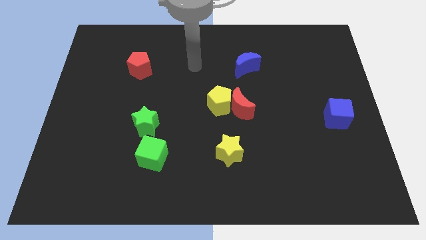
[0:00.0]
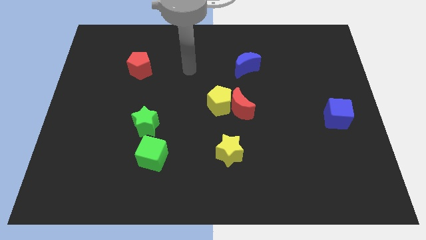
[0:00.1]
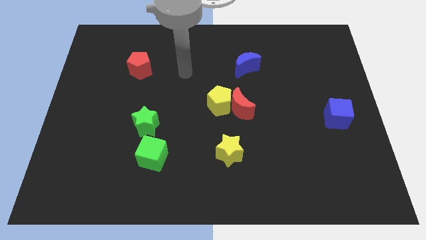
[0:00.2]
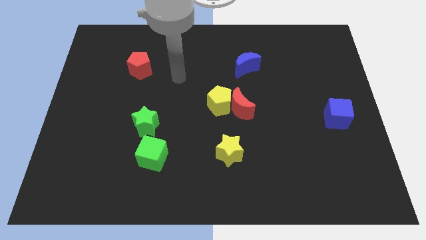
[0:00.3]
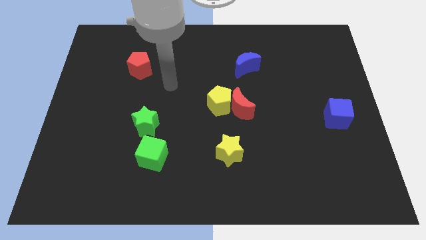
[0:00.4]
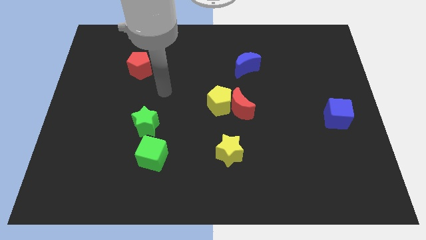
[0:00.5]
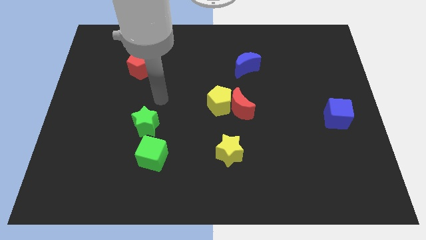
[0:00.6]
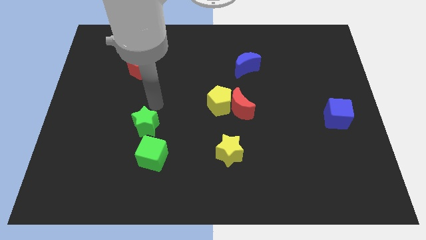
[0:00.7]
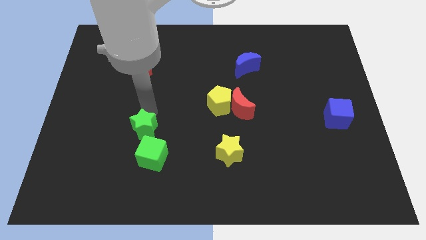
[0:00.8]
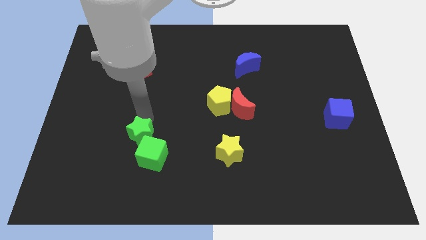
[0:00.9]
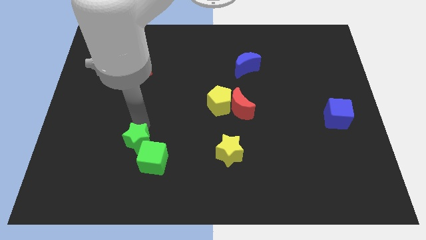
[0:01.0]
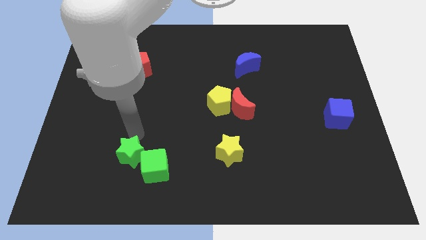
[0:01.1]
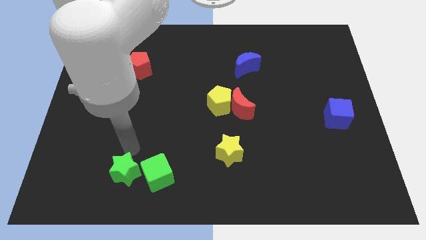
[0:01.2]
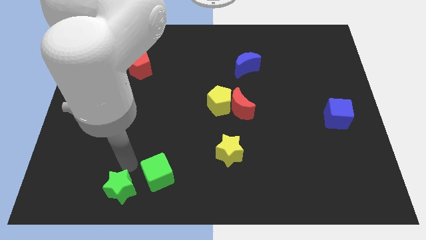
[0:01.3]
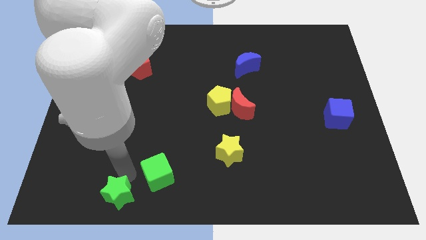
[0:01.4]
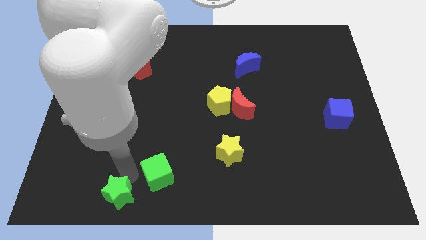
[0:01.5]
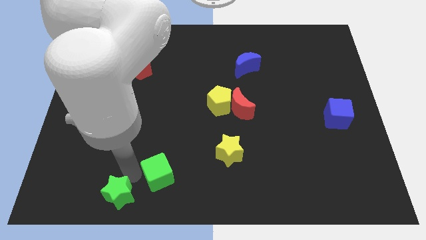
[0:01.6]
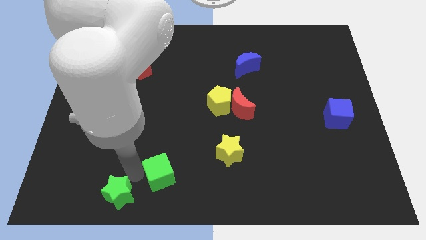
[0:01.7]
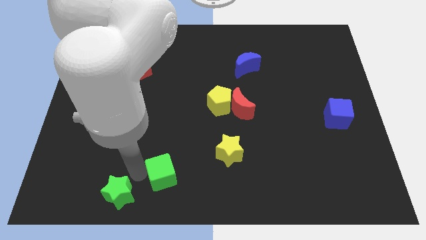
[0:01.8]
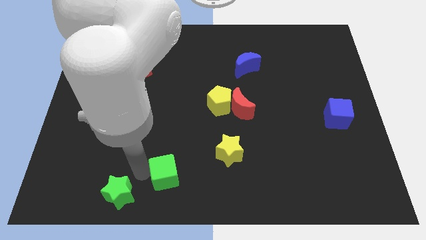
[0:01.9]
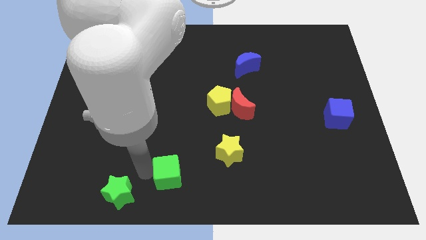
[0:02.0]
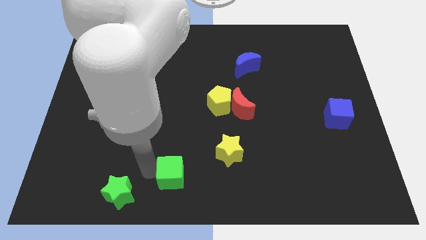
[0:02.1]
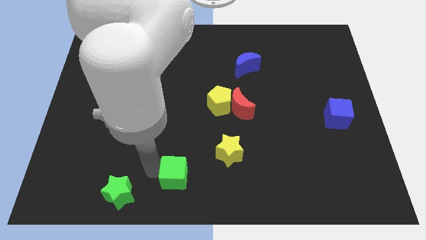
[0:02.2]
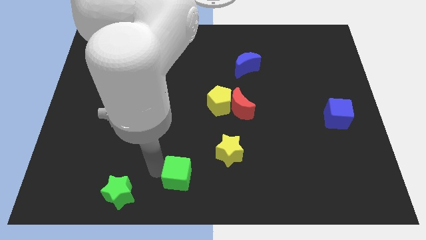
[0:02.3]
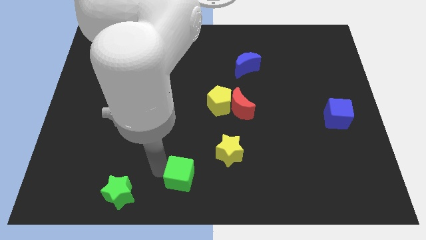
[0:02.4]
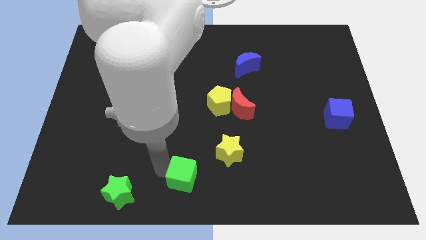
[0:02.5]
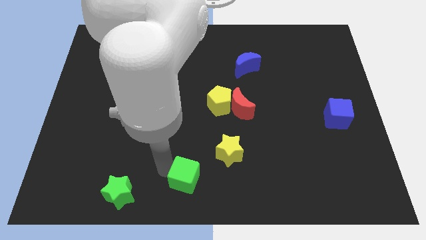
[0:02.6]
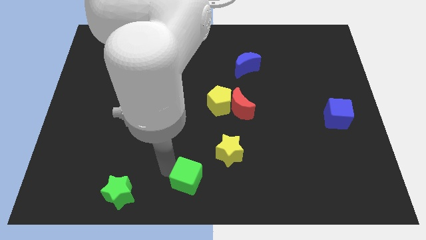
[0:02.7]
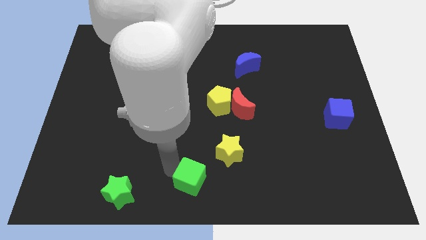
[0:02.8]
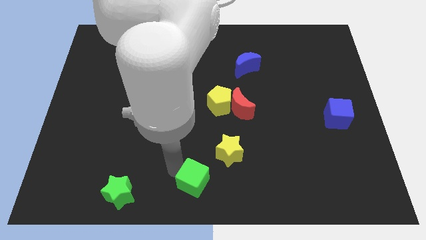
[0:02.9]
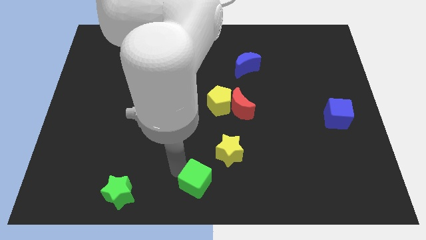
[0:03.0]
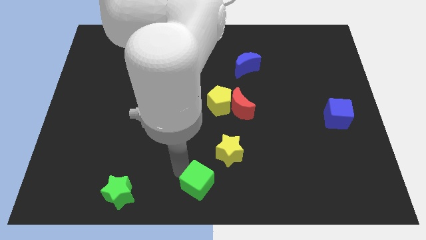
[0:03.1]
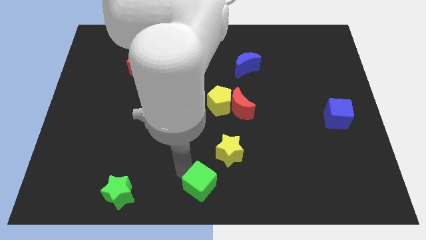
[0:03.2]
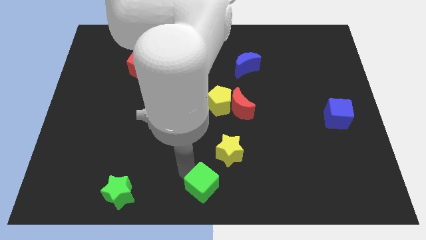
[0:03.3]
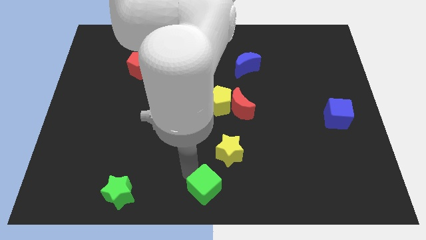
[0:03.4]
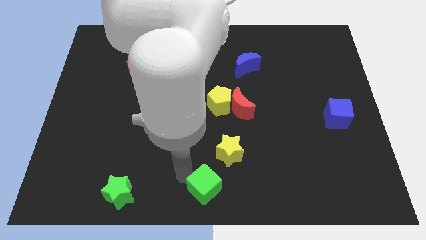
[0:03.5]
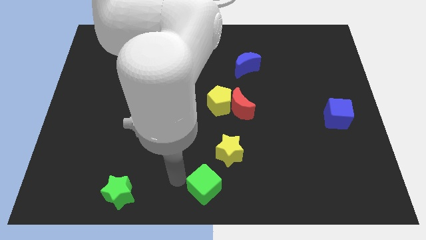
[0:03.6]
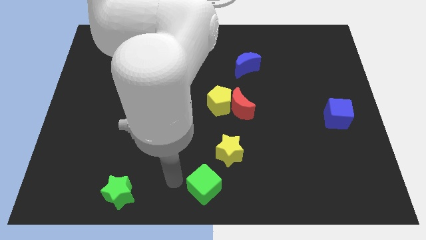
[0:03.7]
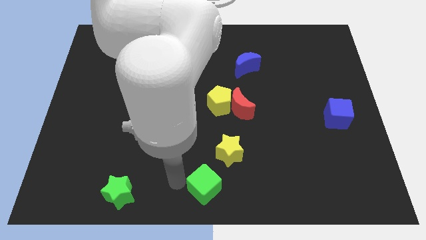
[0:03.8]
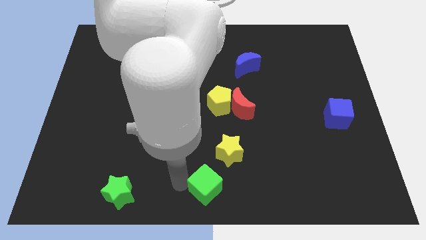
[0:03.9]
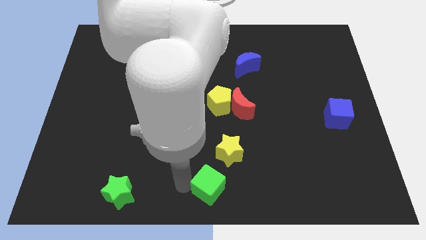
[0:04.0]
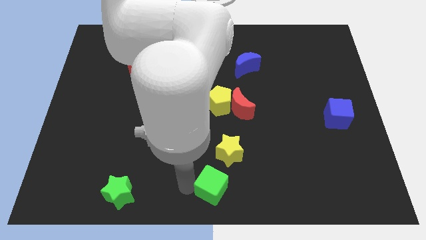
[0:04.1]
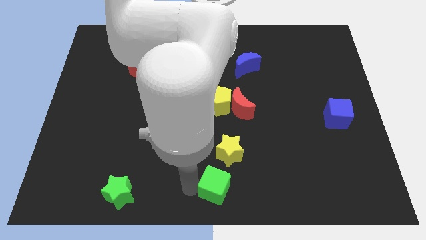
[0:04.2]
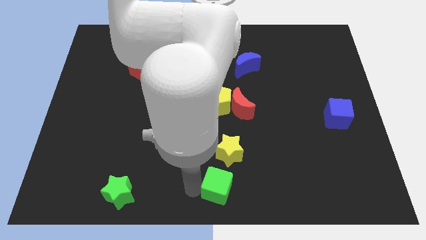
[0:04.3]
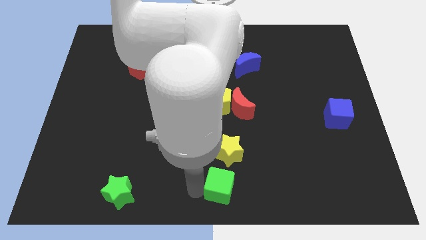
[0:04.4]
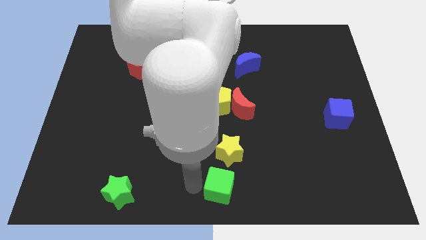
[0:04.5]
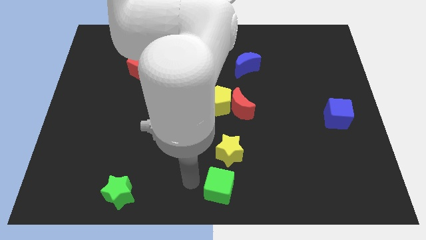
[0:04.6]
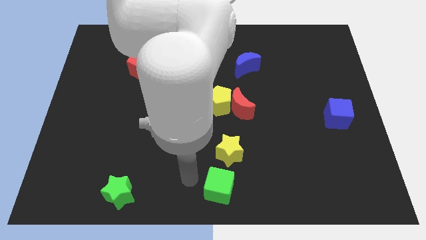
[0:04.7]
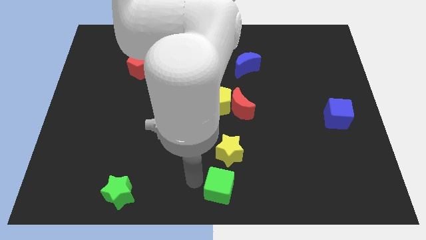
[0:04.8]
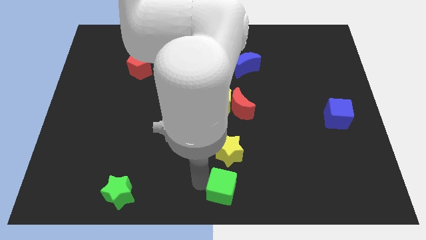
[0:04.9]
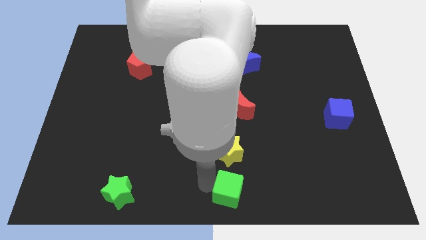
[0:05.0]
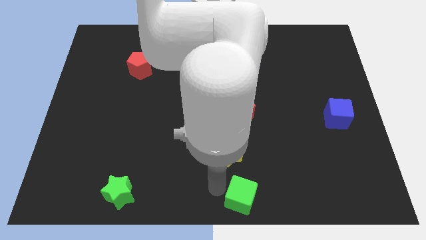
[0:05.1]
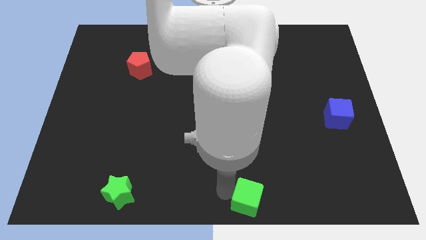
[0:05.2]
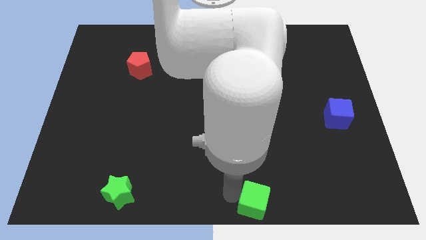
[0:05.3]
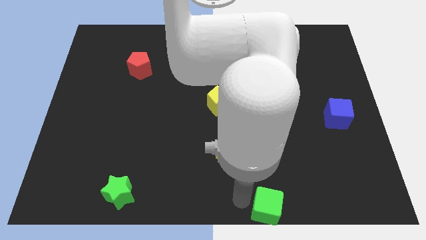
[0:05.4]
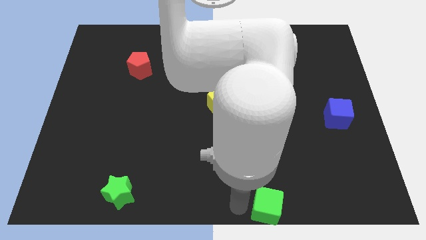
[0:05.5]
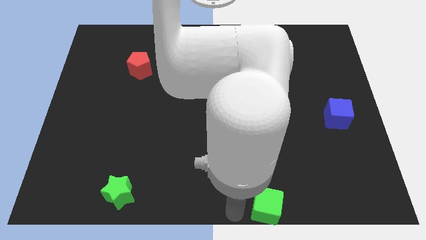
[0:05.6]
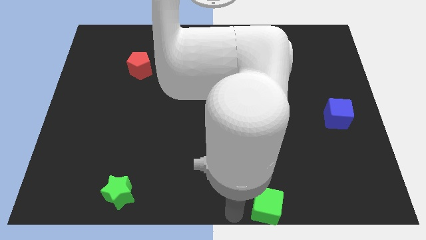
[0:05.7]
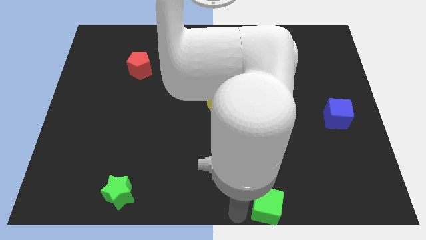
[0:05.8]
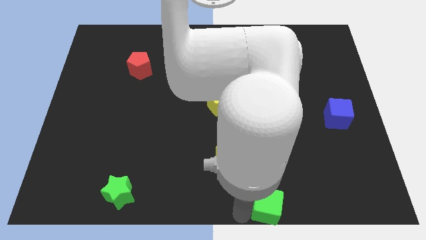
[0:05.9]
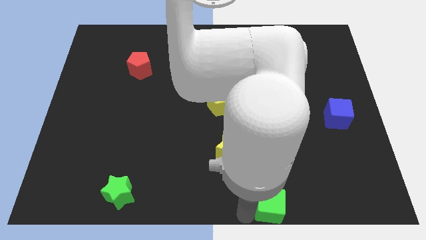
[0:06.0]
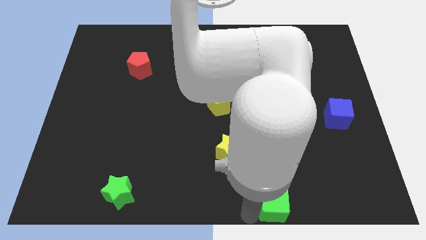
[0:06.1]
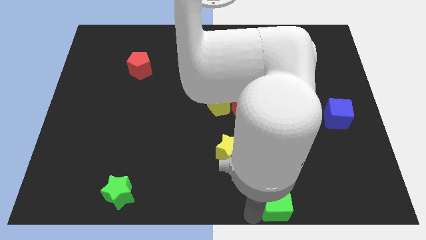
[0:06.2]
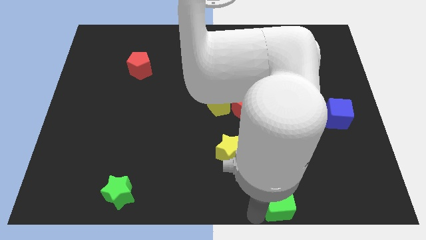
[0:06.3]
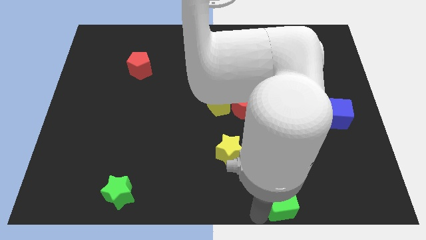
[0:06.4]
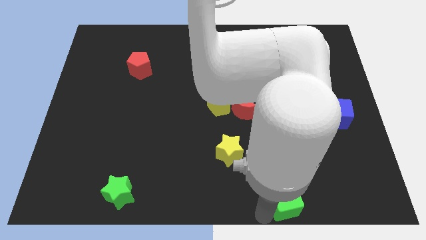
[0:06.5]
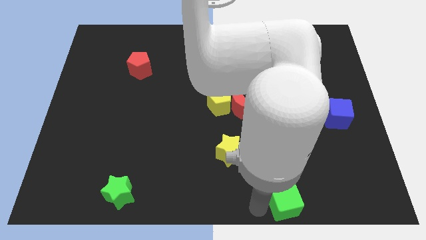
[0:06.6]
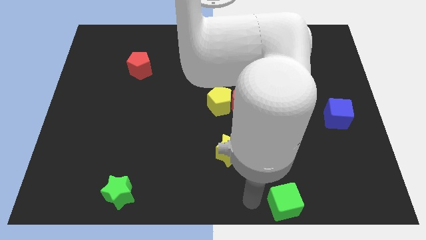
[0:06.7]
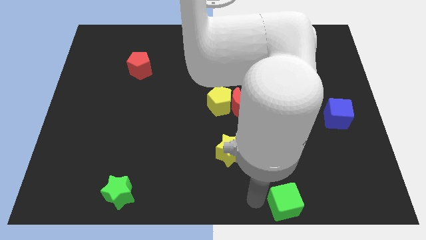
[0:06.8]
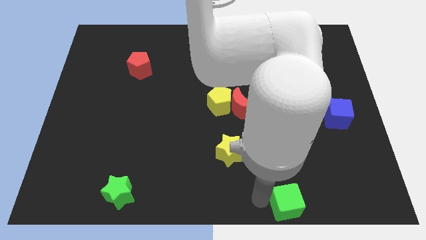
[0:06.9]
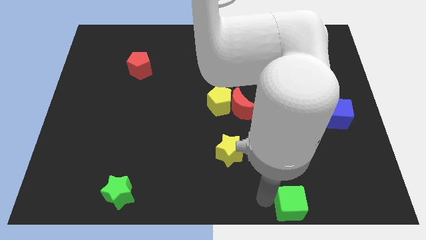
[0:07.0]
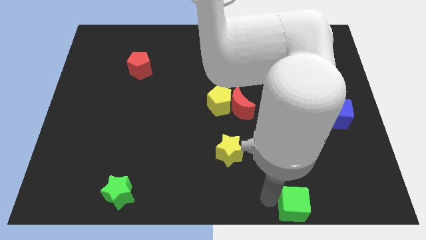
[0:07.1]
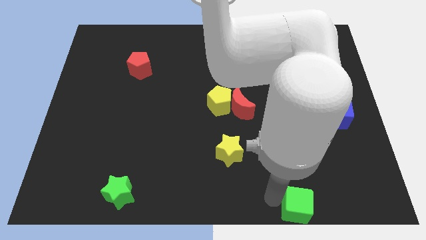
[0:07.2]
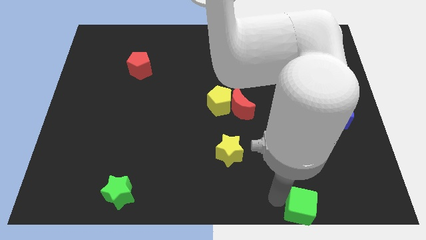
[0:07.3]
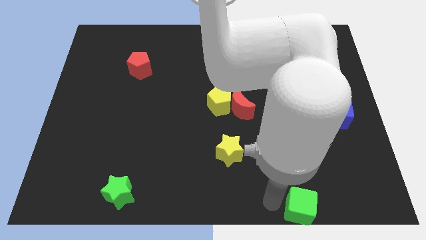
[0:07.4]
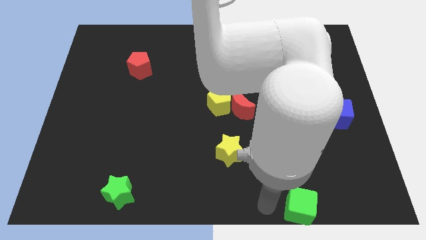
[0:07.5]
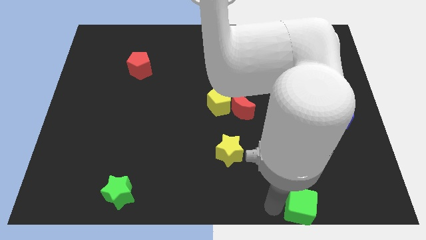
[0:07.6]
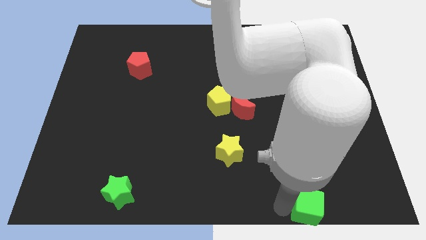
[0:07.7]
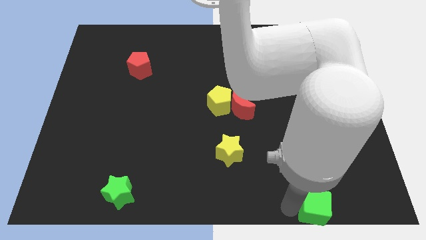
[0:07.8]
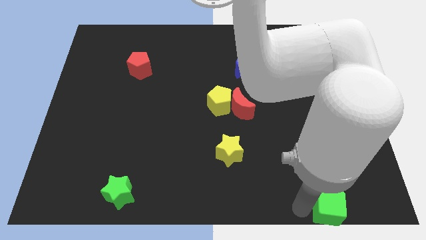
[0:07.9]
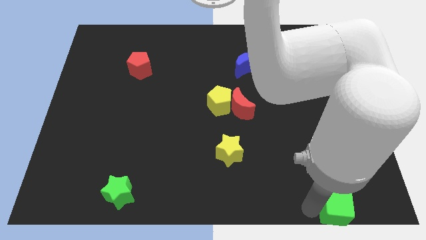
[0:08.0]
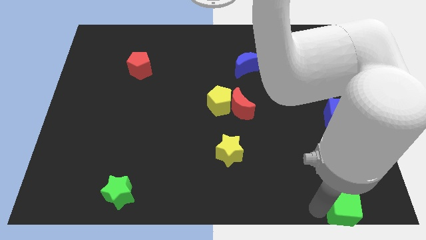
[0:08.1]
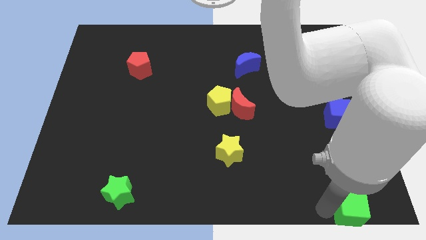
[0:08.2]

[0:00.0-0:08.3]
slide the green cube to the bottom right corner
